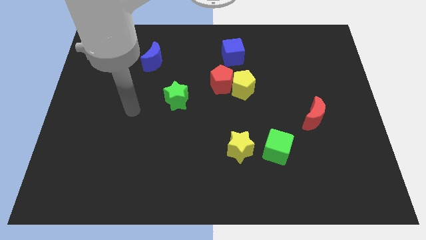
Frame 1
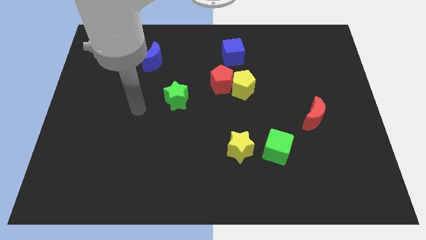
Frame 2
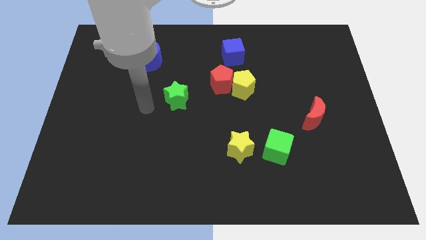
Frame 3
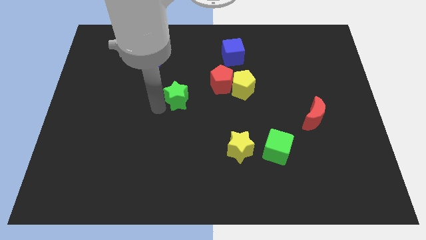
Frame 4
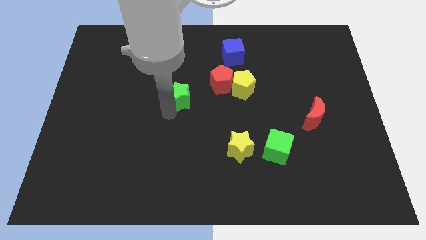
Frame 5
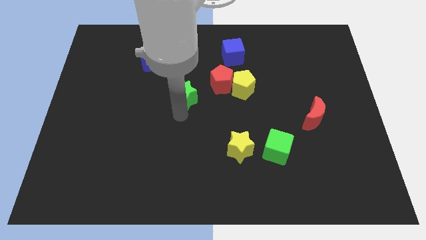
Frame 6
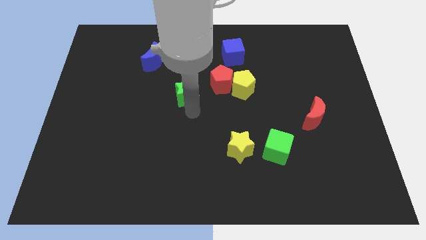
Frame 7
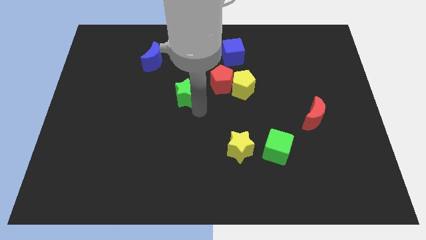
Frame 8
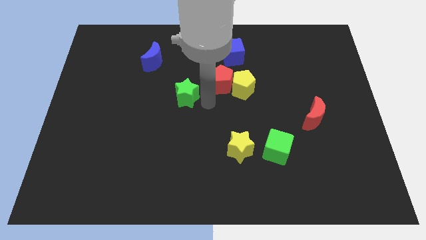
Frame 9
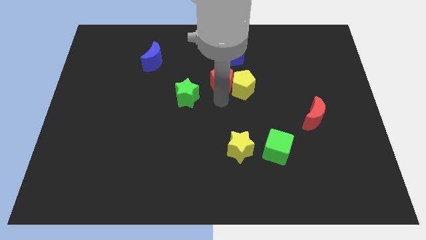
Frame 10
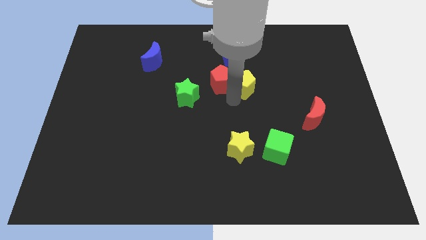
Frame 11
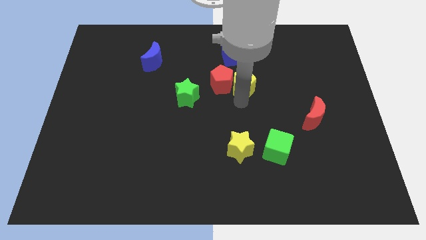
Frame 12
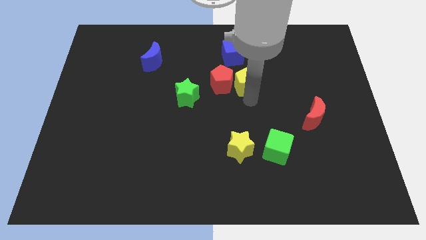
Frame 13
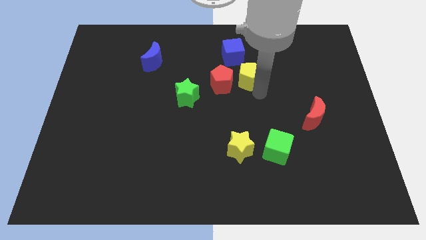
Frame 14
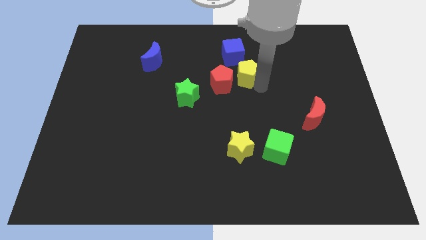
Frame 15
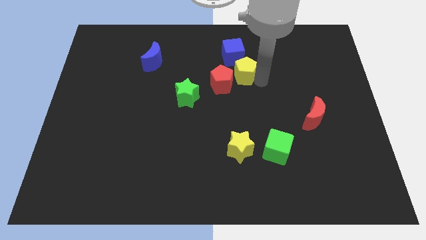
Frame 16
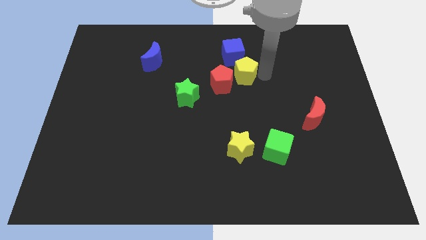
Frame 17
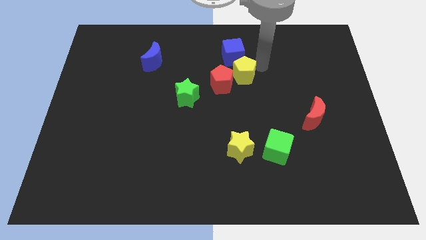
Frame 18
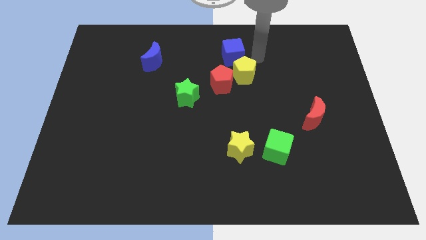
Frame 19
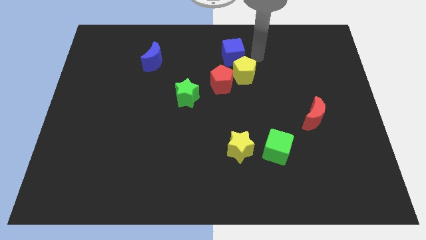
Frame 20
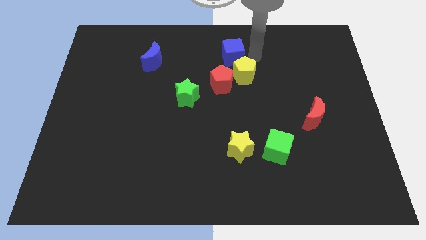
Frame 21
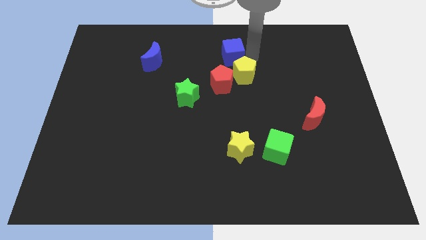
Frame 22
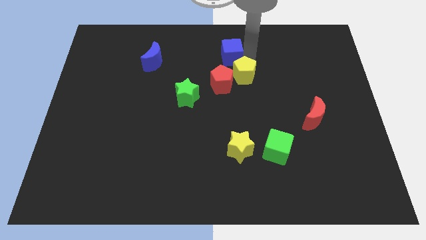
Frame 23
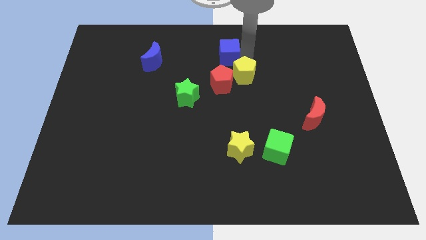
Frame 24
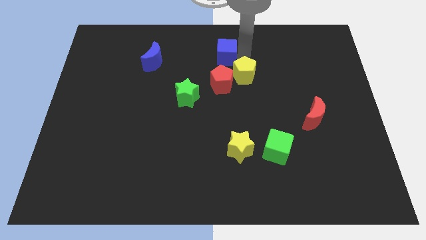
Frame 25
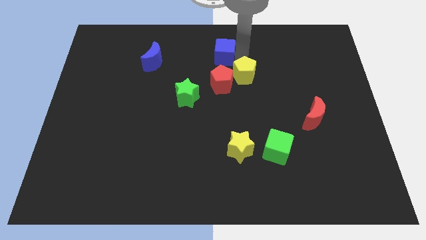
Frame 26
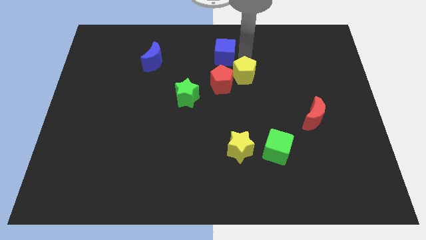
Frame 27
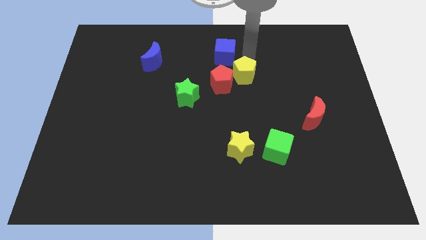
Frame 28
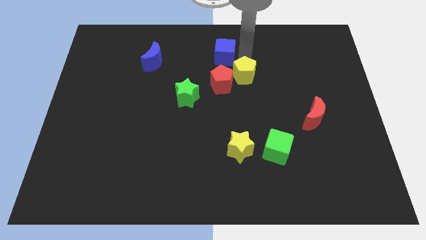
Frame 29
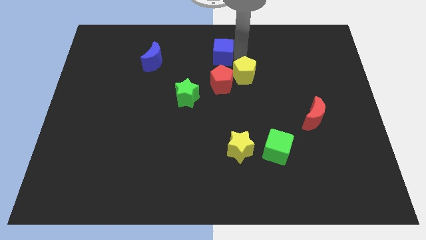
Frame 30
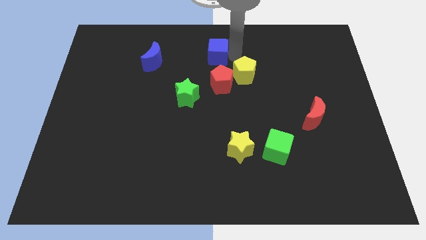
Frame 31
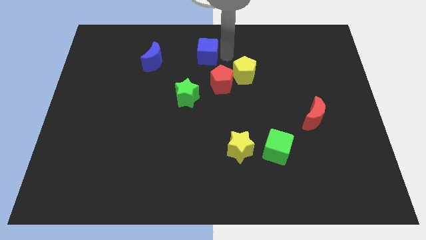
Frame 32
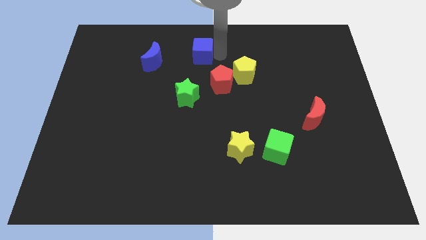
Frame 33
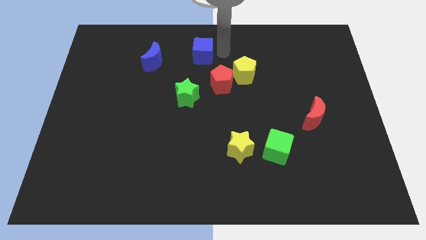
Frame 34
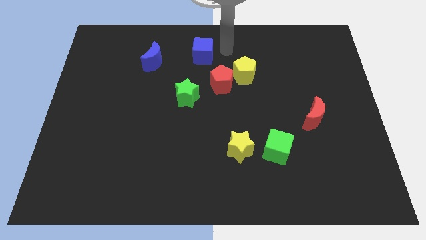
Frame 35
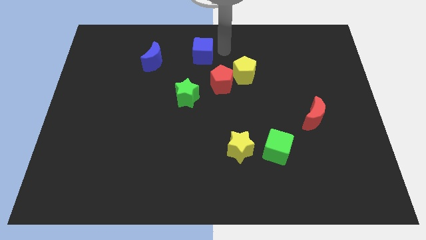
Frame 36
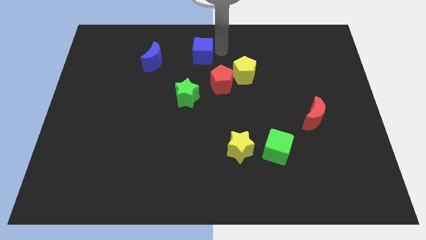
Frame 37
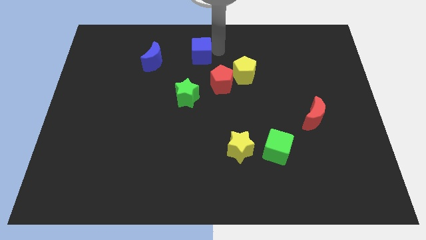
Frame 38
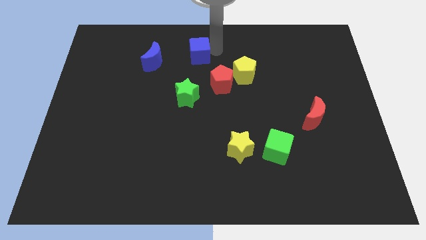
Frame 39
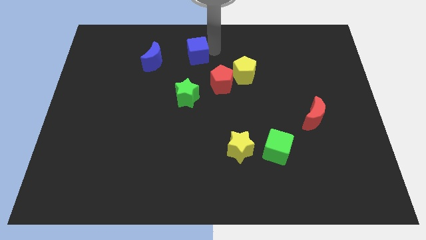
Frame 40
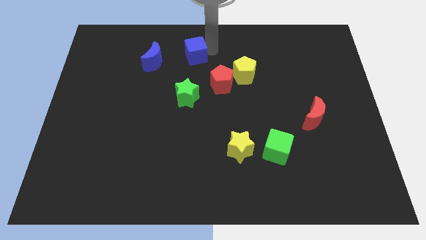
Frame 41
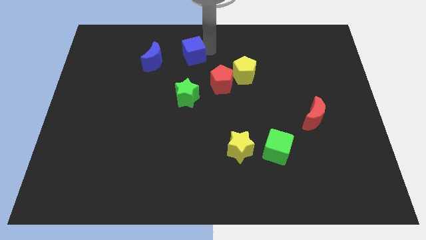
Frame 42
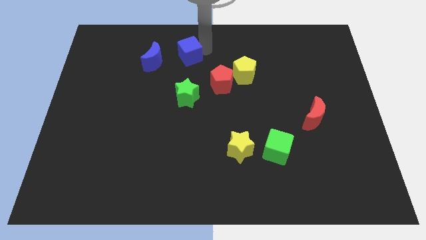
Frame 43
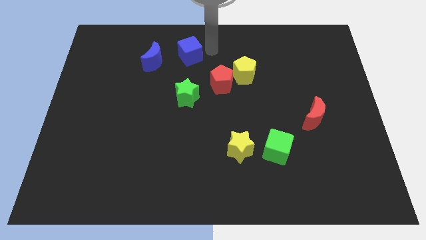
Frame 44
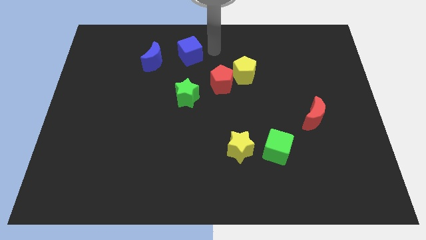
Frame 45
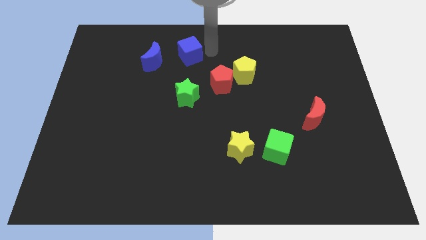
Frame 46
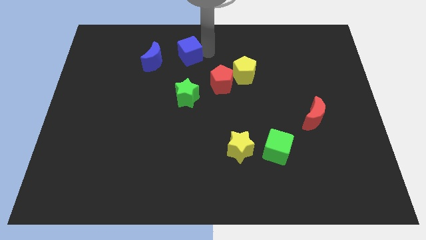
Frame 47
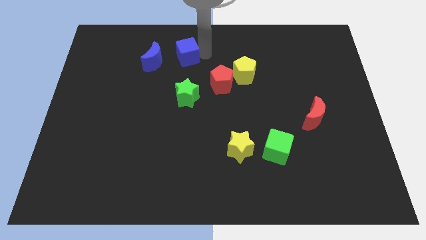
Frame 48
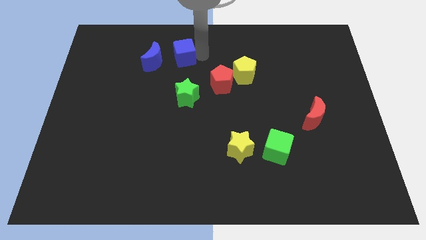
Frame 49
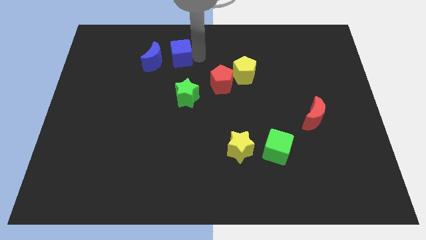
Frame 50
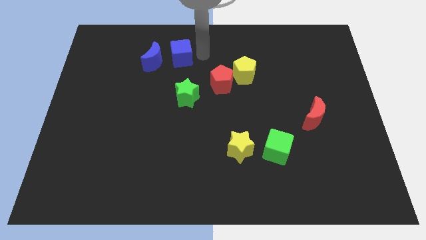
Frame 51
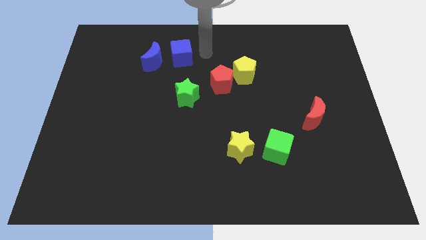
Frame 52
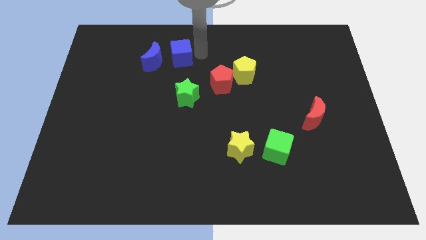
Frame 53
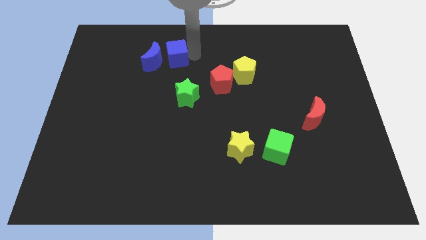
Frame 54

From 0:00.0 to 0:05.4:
push the blue cube towards the blue moon

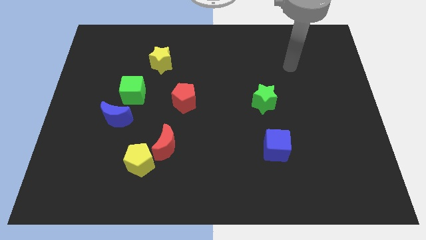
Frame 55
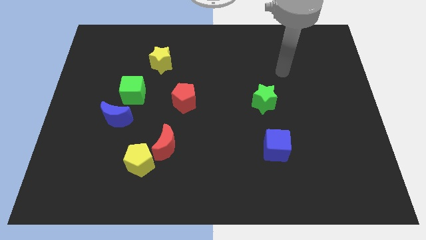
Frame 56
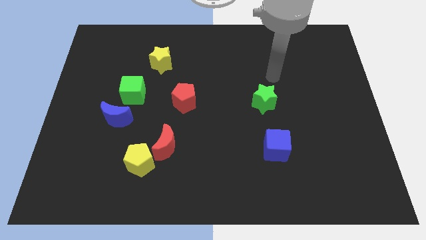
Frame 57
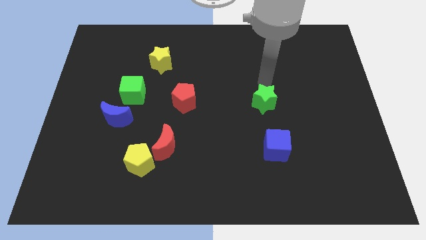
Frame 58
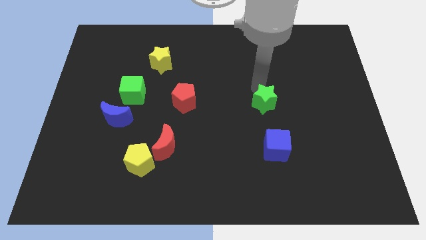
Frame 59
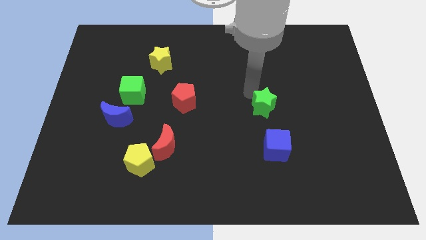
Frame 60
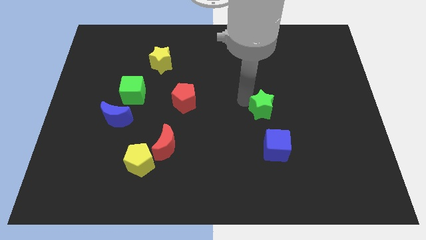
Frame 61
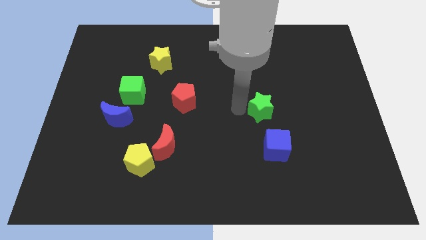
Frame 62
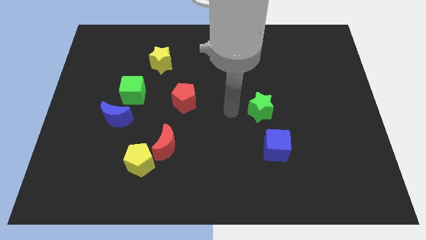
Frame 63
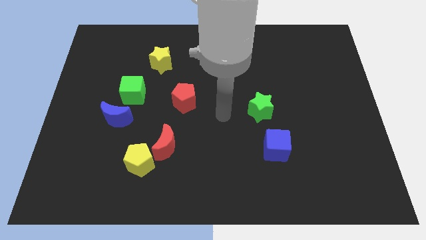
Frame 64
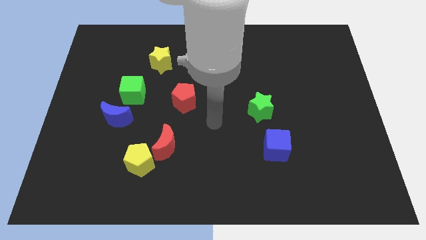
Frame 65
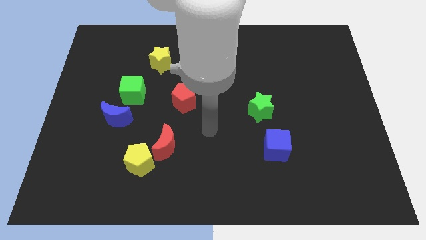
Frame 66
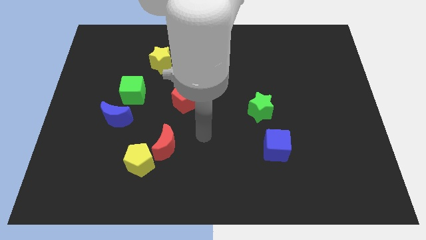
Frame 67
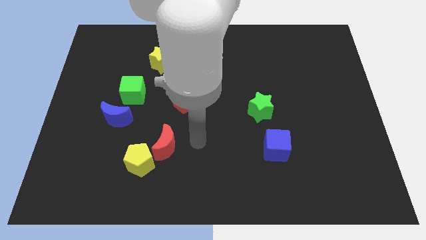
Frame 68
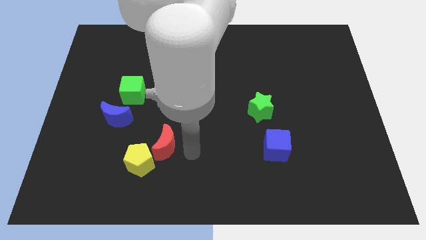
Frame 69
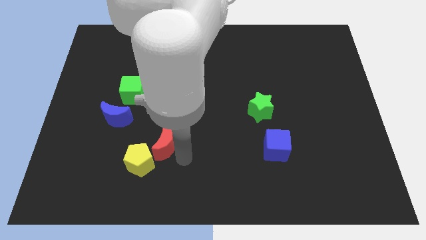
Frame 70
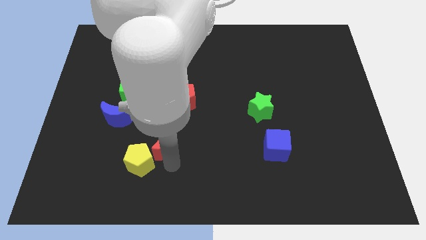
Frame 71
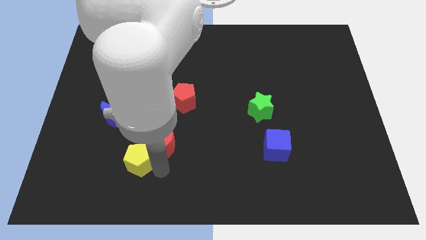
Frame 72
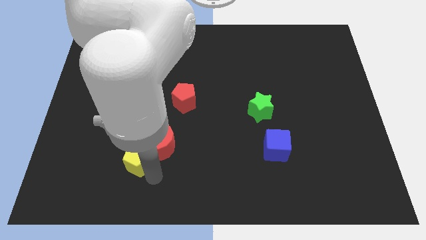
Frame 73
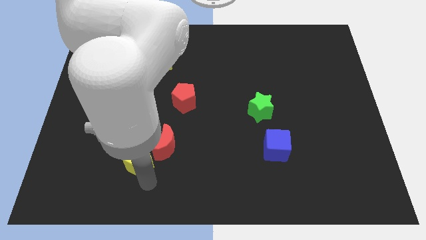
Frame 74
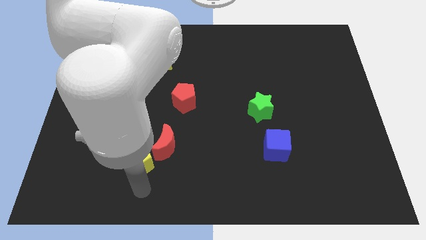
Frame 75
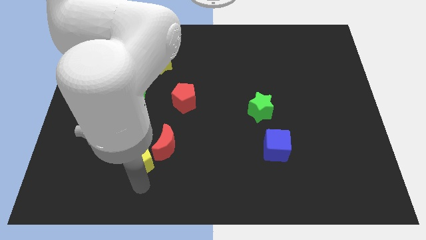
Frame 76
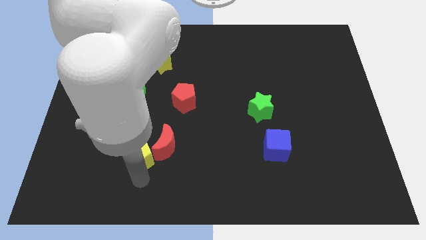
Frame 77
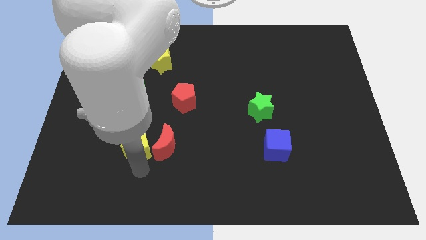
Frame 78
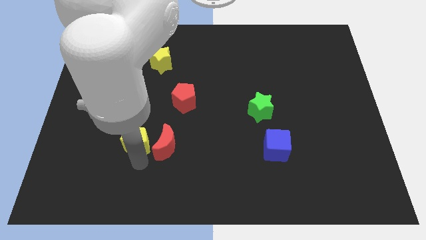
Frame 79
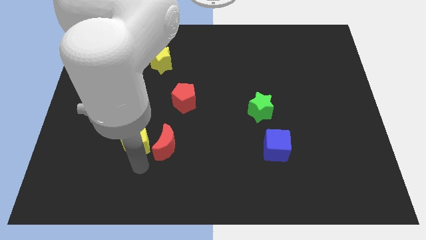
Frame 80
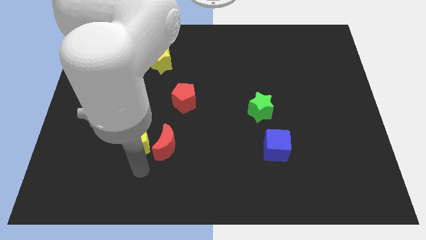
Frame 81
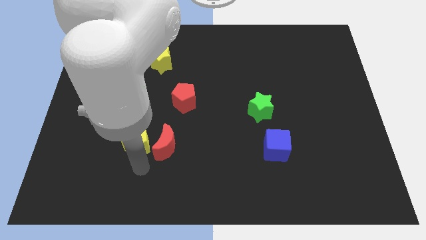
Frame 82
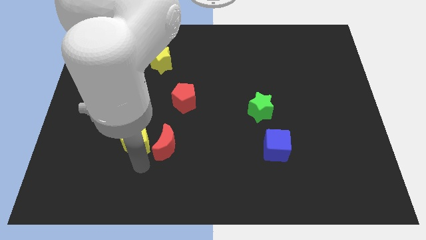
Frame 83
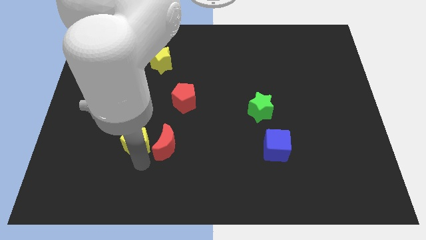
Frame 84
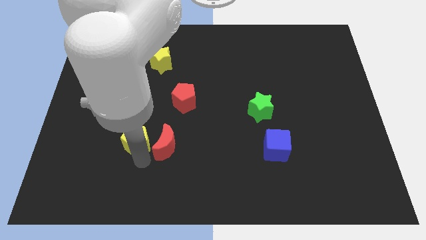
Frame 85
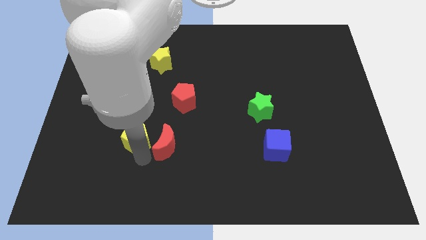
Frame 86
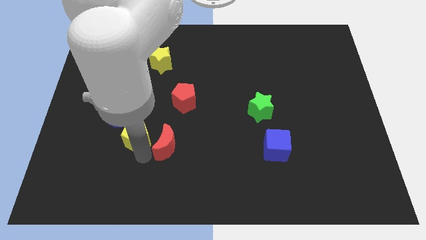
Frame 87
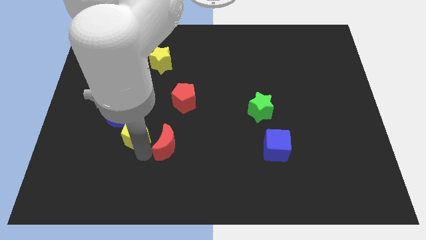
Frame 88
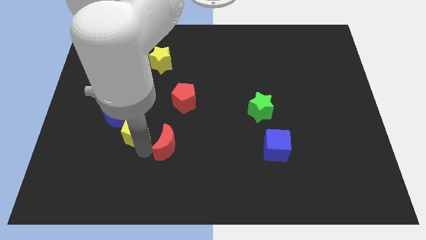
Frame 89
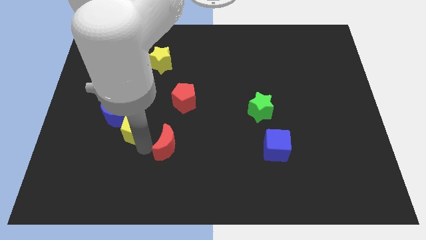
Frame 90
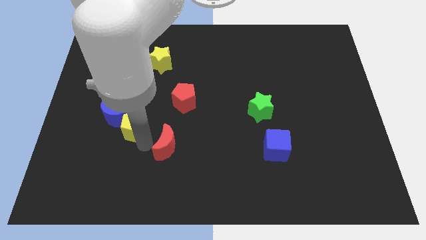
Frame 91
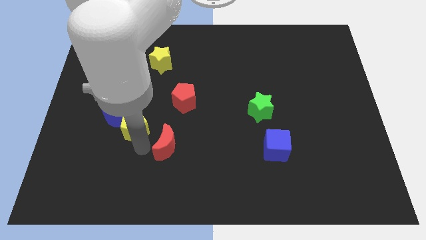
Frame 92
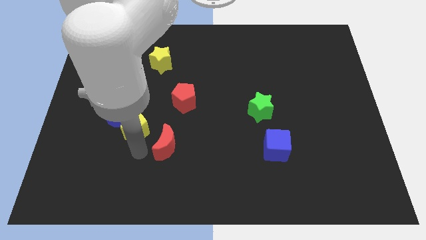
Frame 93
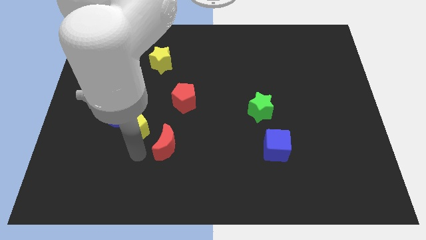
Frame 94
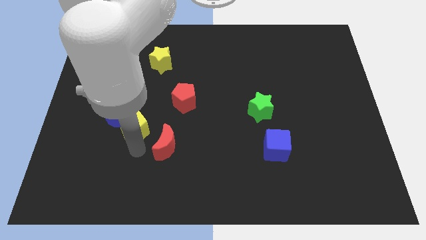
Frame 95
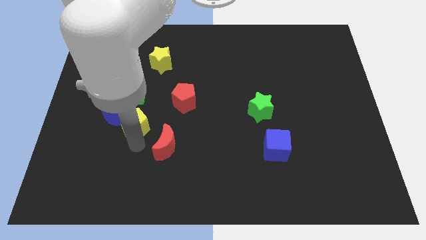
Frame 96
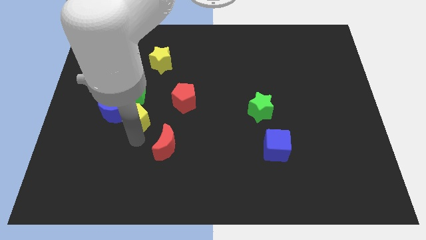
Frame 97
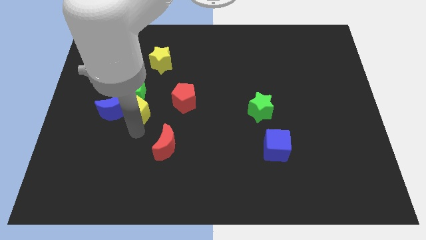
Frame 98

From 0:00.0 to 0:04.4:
move the yellow pentagon towards the green cube
